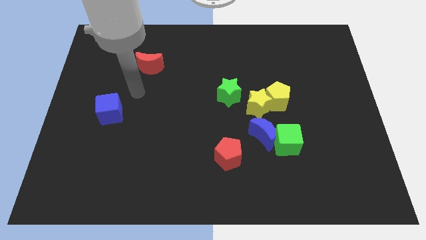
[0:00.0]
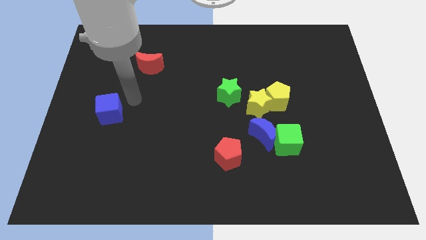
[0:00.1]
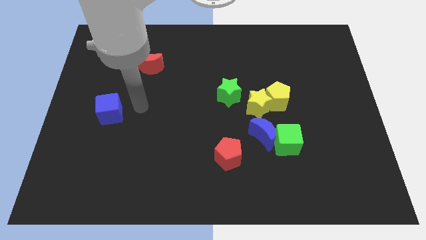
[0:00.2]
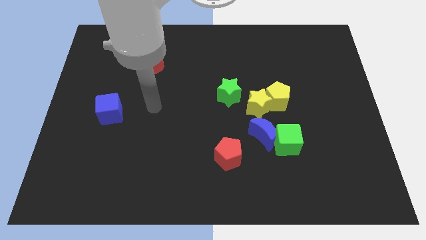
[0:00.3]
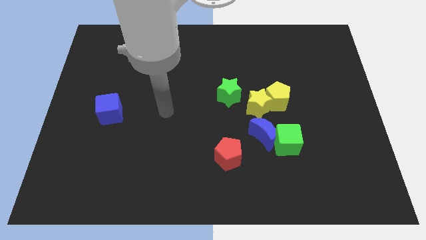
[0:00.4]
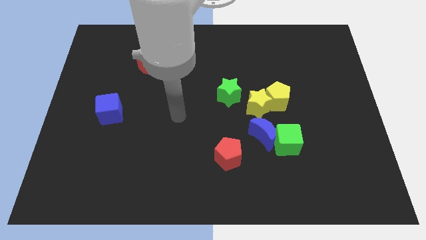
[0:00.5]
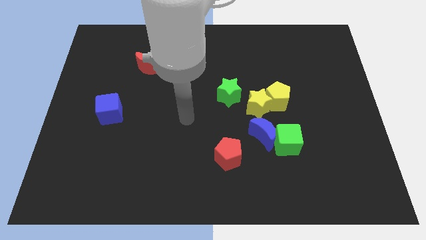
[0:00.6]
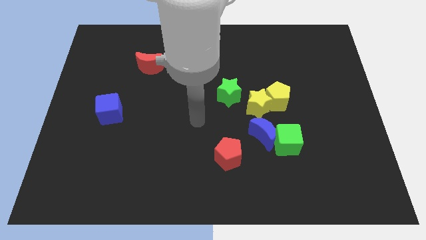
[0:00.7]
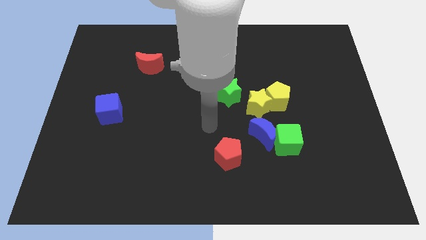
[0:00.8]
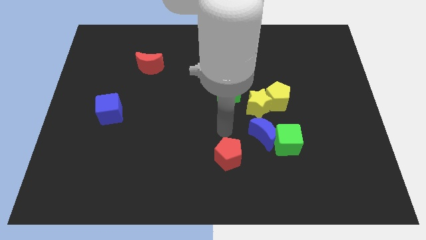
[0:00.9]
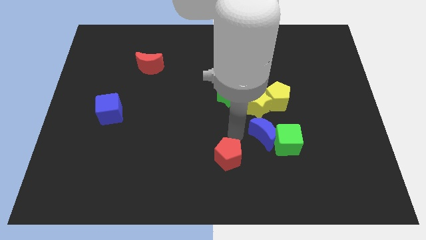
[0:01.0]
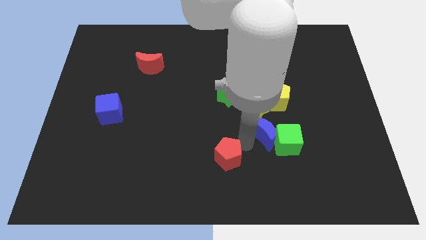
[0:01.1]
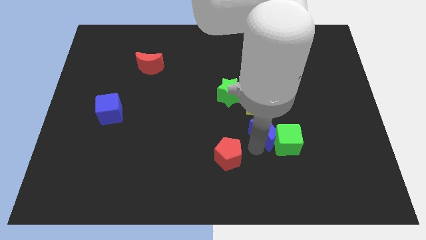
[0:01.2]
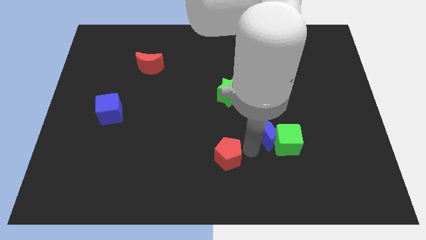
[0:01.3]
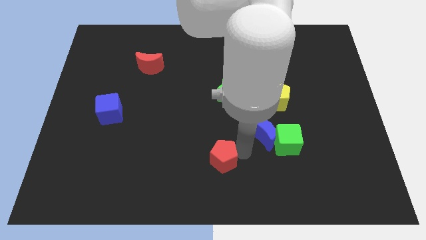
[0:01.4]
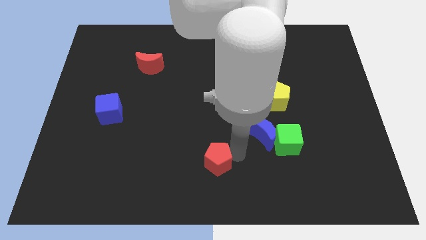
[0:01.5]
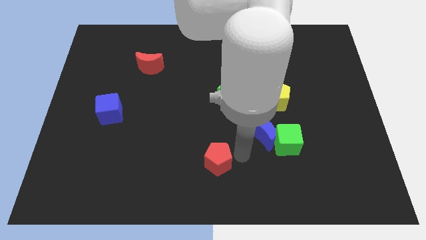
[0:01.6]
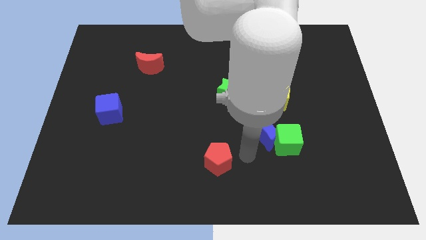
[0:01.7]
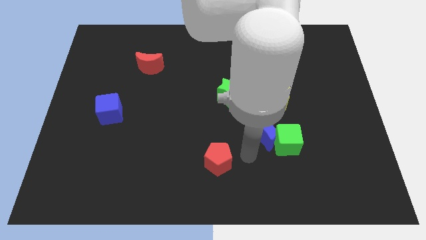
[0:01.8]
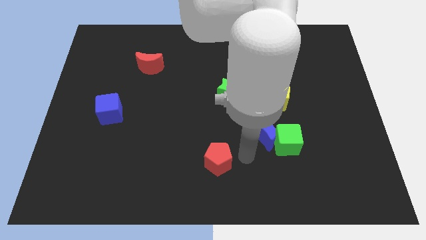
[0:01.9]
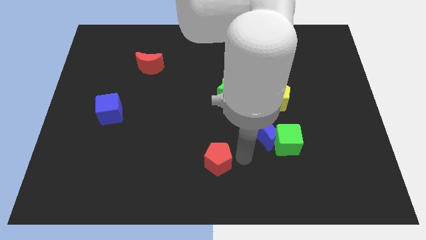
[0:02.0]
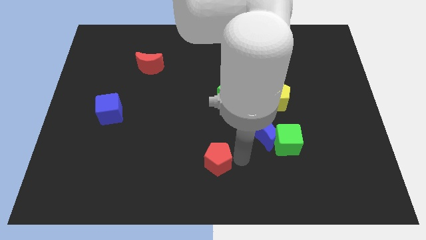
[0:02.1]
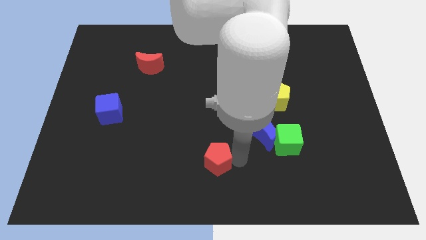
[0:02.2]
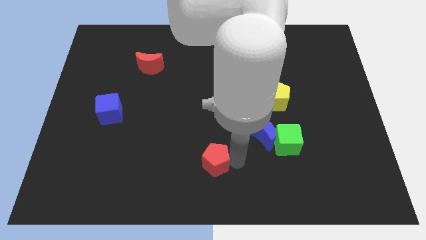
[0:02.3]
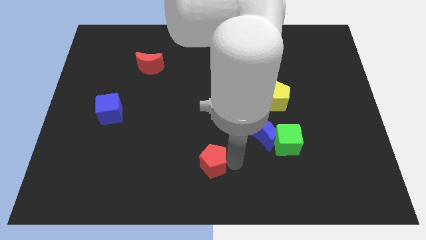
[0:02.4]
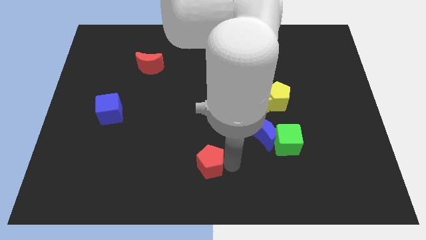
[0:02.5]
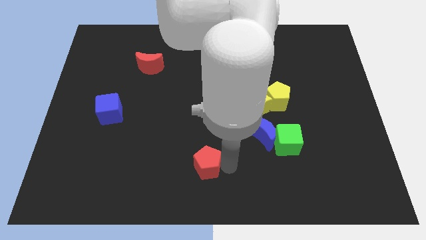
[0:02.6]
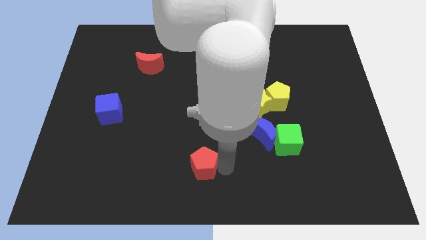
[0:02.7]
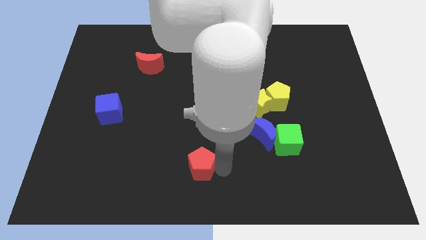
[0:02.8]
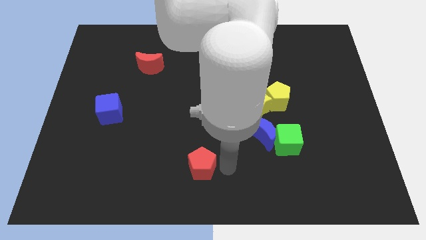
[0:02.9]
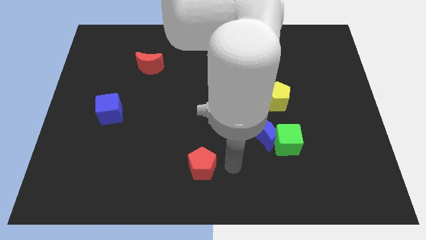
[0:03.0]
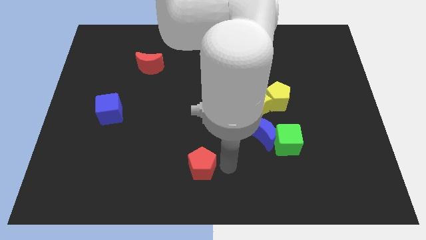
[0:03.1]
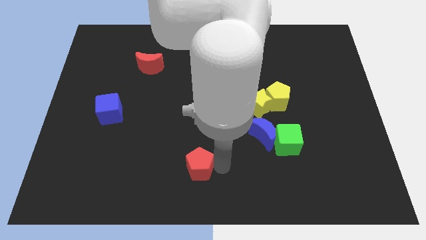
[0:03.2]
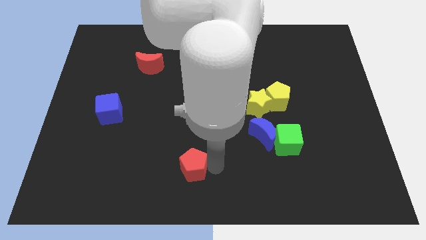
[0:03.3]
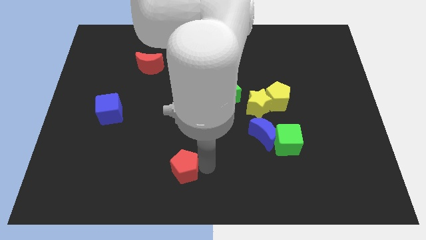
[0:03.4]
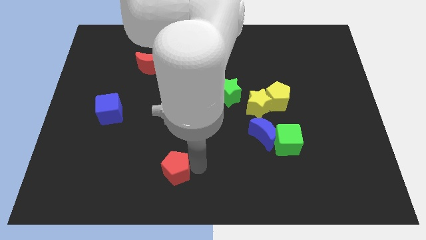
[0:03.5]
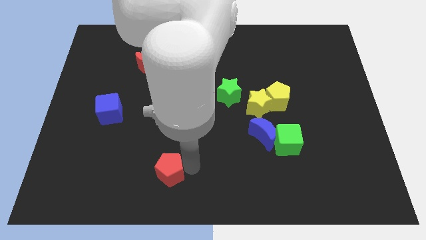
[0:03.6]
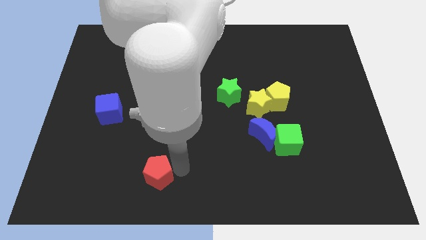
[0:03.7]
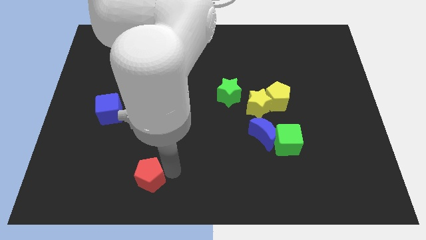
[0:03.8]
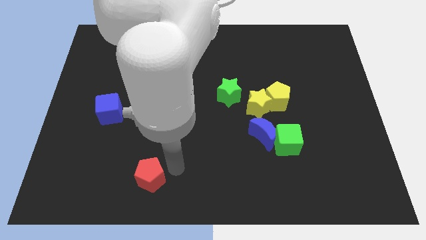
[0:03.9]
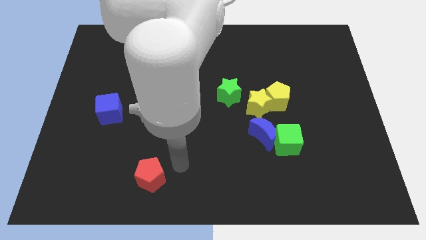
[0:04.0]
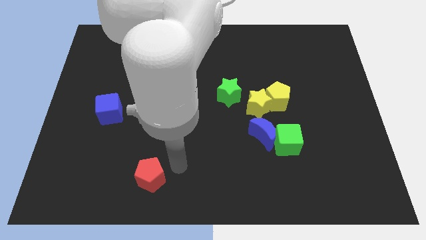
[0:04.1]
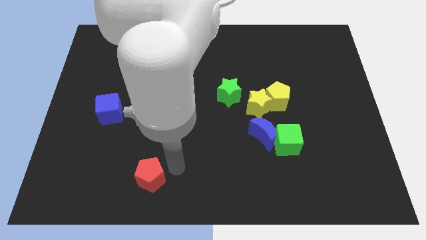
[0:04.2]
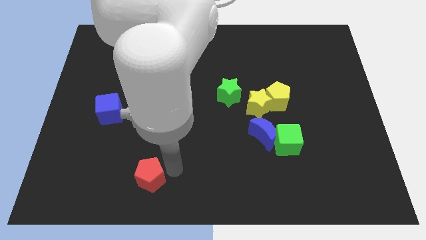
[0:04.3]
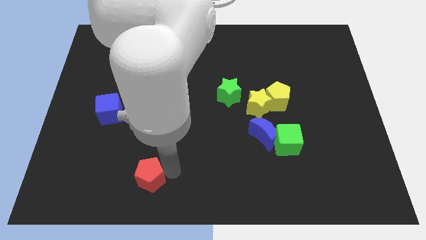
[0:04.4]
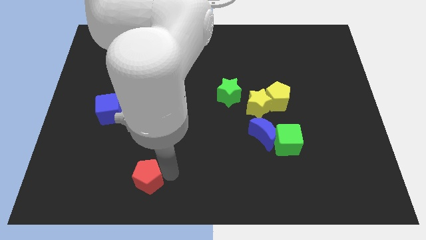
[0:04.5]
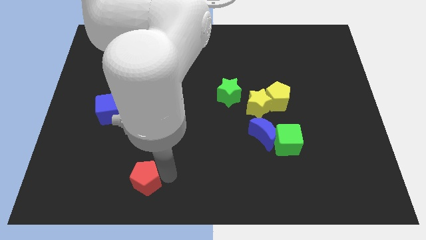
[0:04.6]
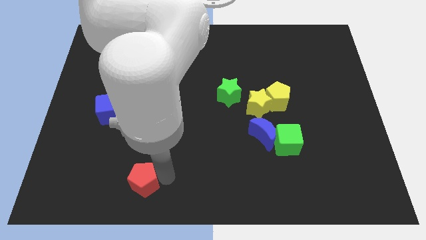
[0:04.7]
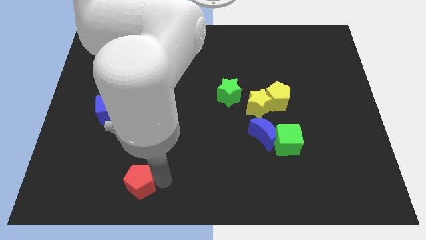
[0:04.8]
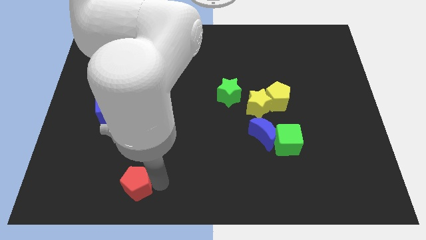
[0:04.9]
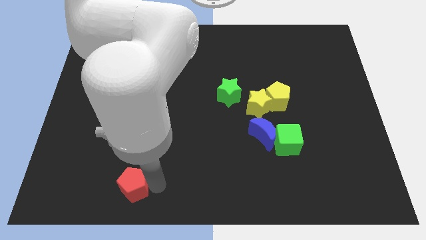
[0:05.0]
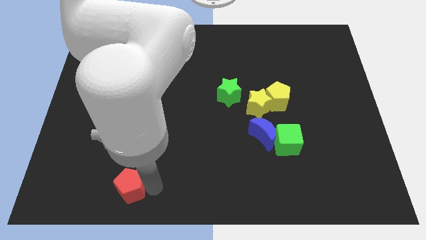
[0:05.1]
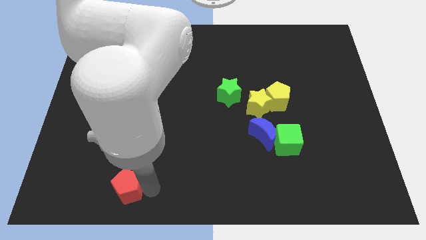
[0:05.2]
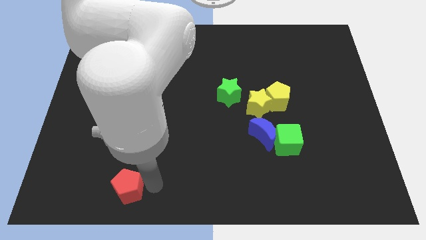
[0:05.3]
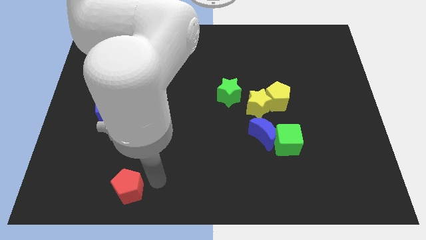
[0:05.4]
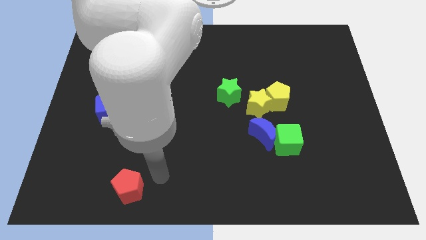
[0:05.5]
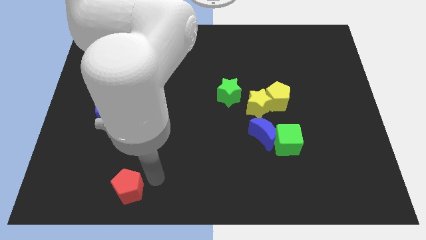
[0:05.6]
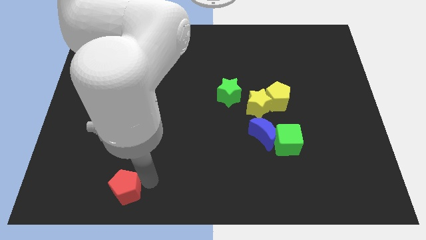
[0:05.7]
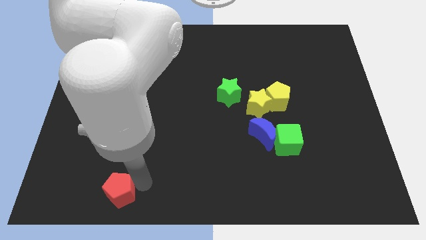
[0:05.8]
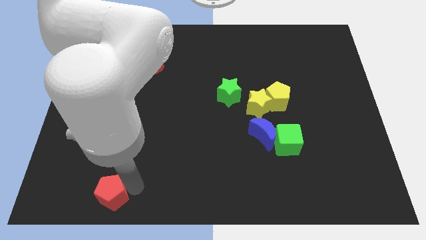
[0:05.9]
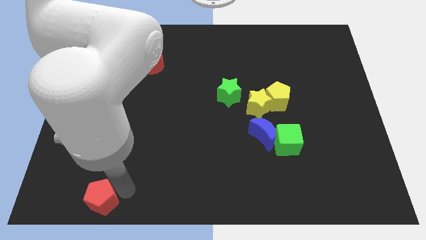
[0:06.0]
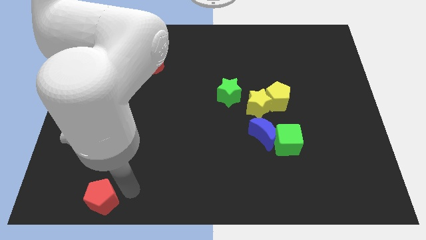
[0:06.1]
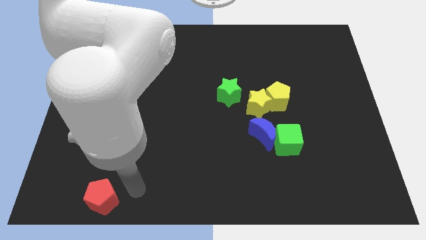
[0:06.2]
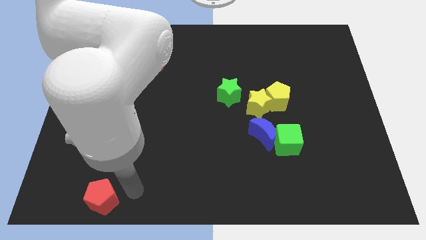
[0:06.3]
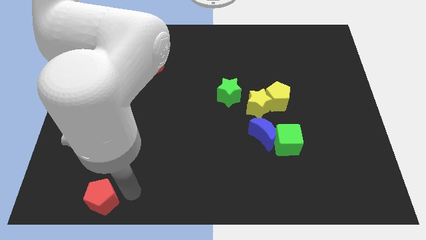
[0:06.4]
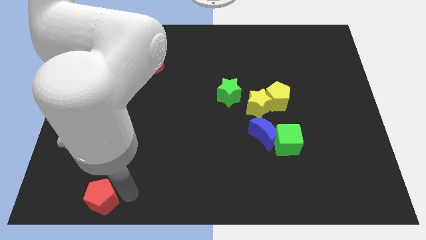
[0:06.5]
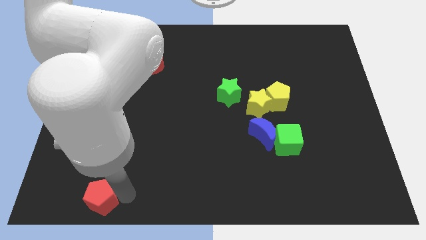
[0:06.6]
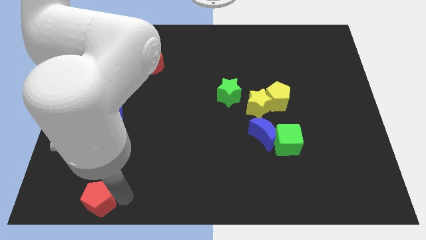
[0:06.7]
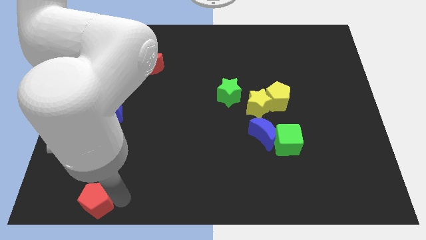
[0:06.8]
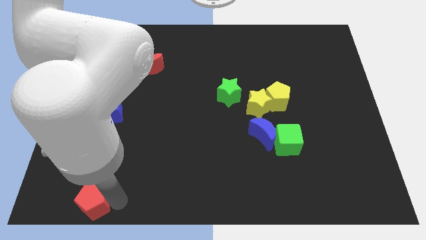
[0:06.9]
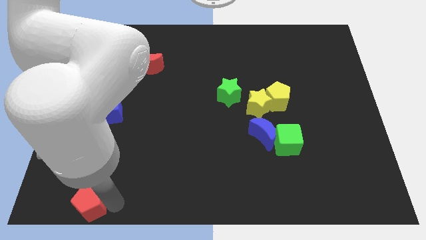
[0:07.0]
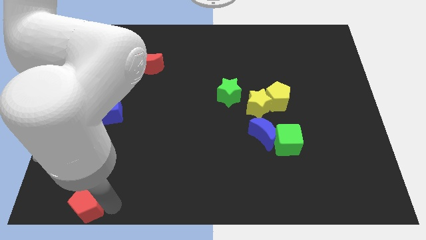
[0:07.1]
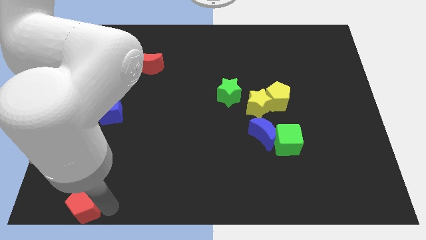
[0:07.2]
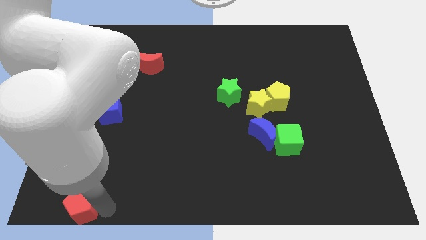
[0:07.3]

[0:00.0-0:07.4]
move the red pentagon to the bottom left
